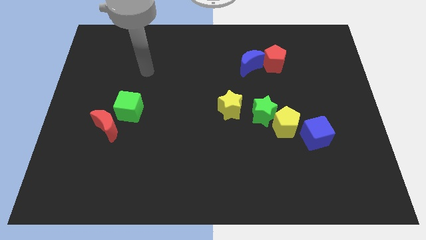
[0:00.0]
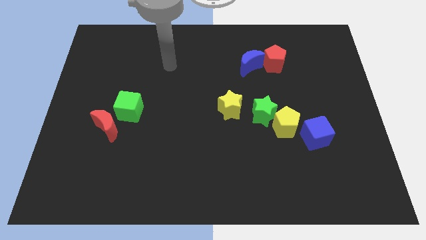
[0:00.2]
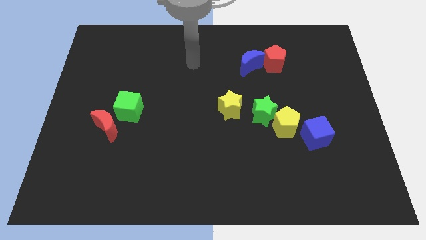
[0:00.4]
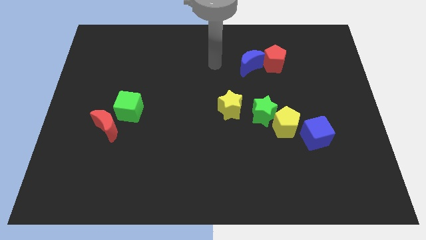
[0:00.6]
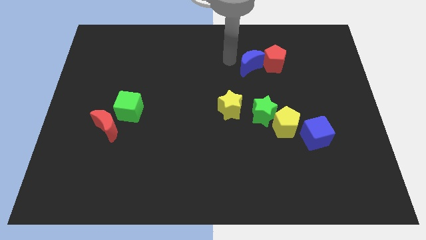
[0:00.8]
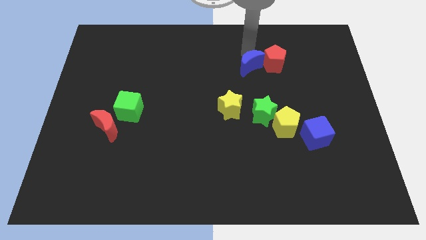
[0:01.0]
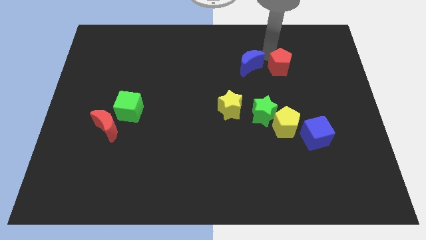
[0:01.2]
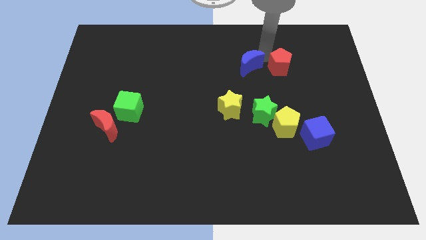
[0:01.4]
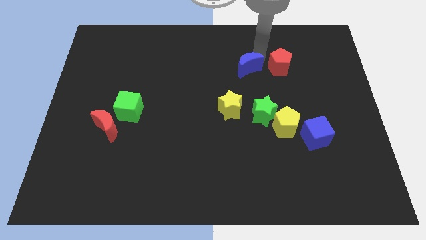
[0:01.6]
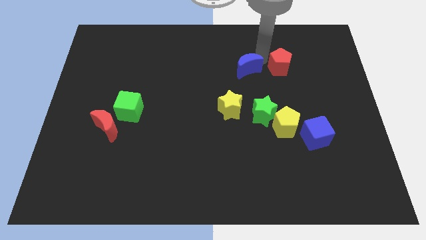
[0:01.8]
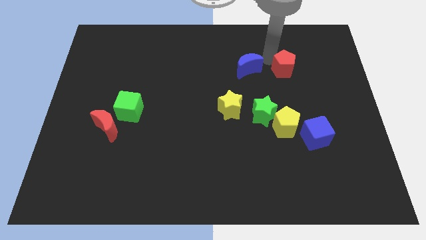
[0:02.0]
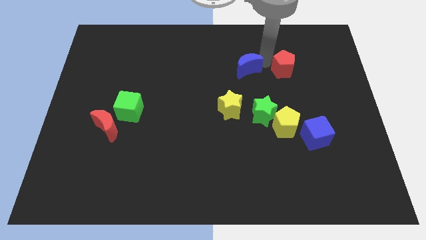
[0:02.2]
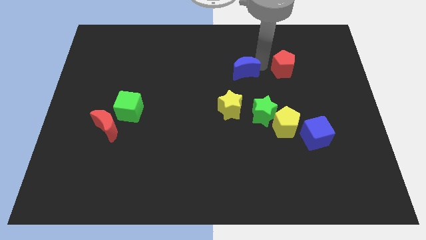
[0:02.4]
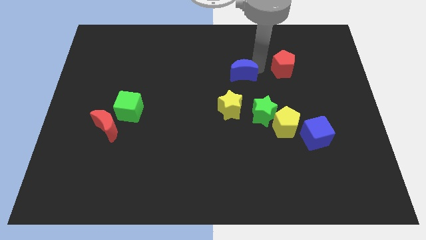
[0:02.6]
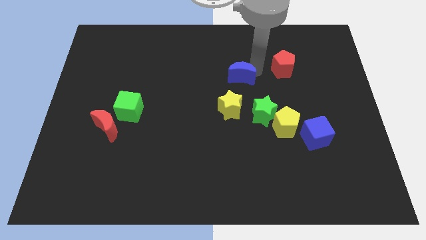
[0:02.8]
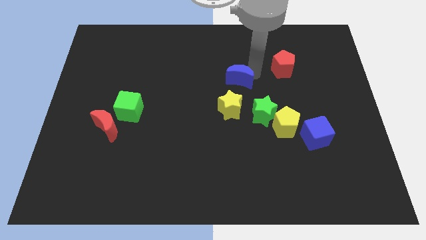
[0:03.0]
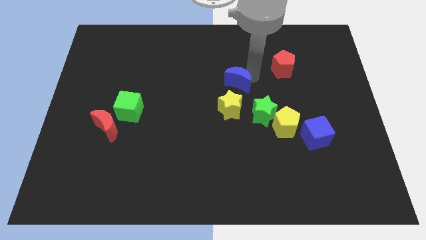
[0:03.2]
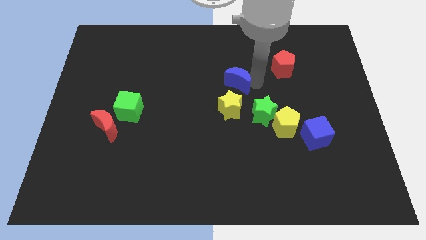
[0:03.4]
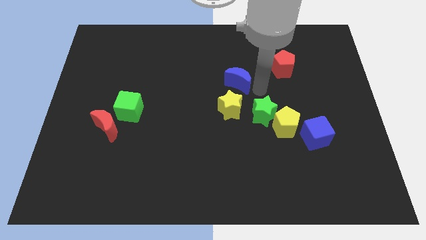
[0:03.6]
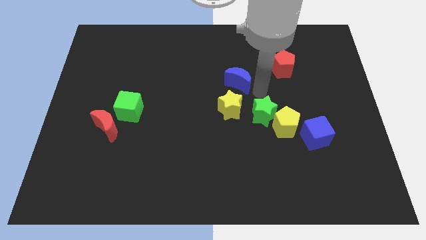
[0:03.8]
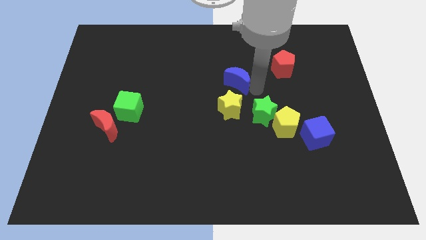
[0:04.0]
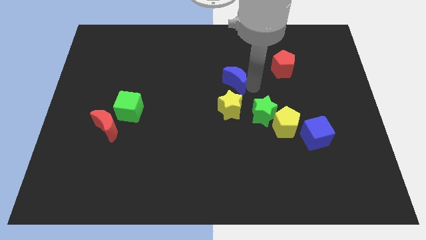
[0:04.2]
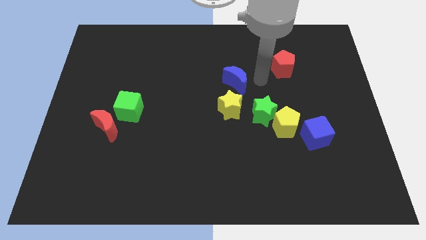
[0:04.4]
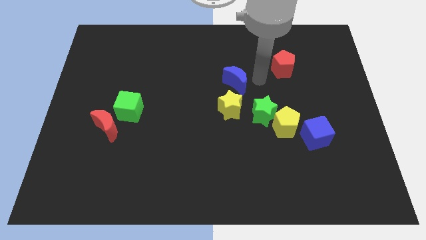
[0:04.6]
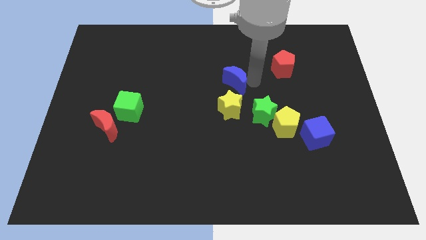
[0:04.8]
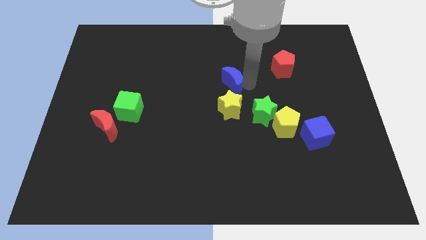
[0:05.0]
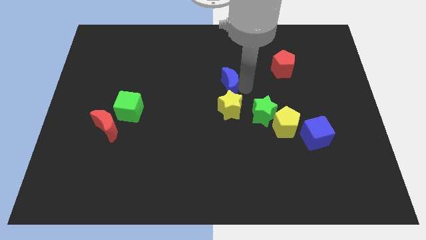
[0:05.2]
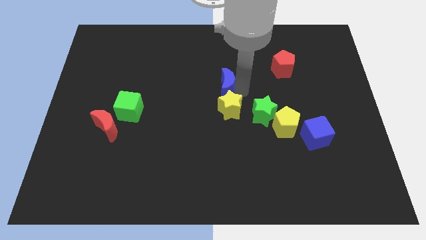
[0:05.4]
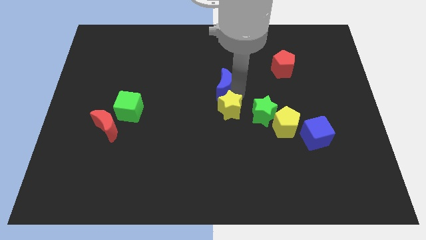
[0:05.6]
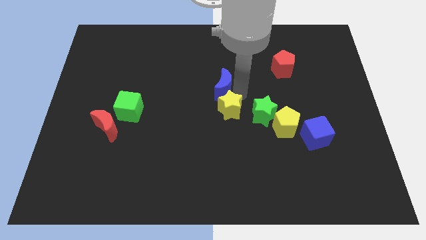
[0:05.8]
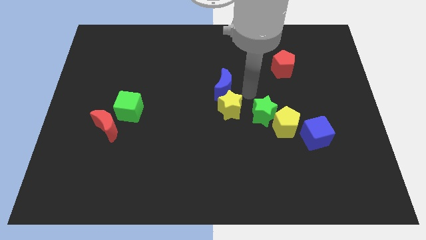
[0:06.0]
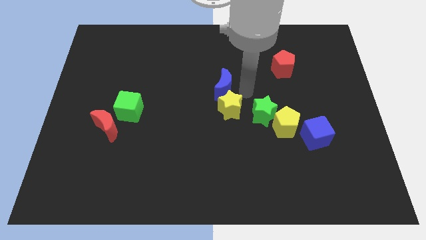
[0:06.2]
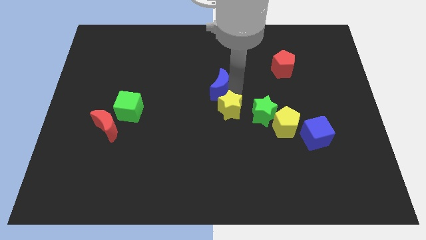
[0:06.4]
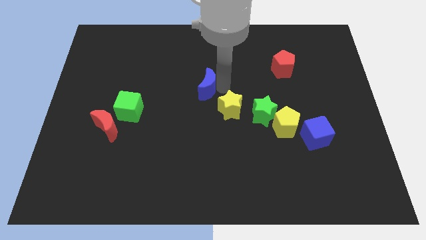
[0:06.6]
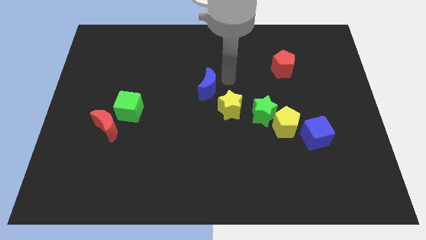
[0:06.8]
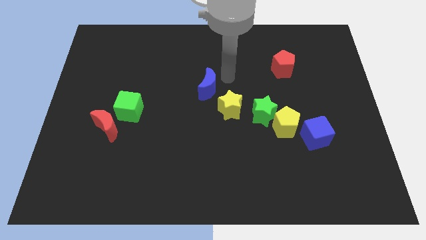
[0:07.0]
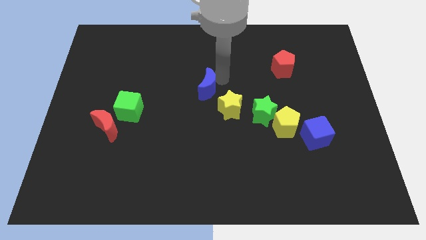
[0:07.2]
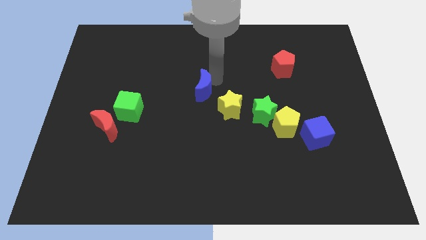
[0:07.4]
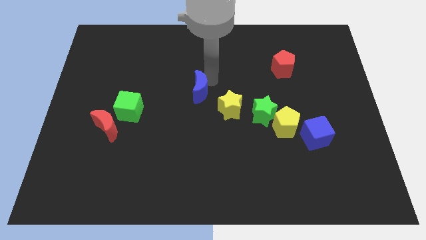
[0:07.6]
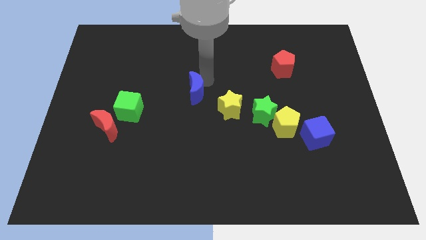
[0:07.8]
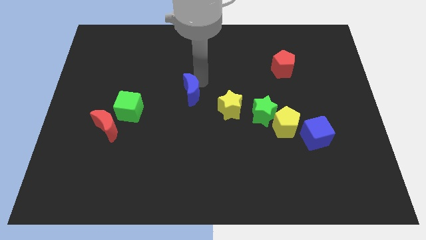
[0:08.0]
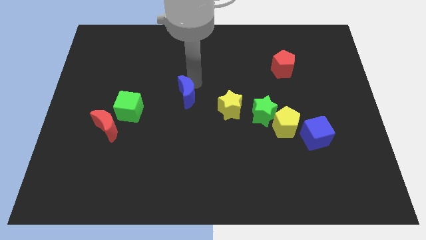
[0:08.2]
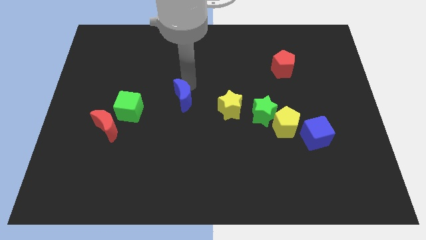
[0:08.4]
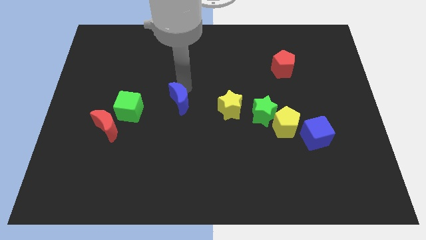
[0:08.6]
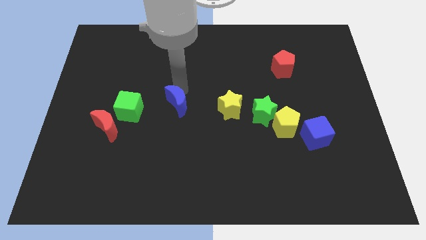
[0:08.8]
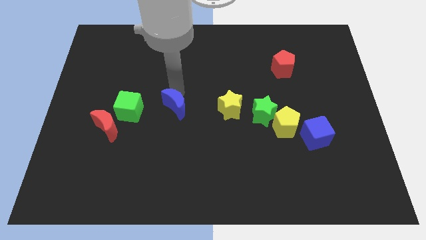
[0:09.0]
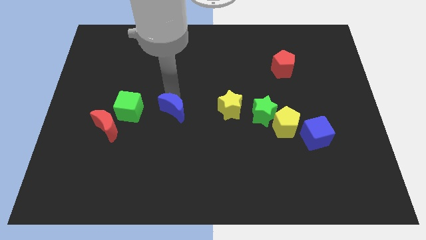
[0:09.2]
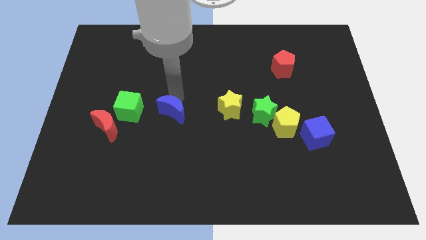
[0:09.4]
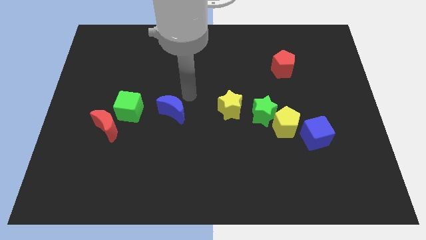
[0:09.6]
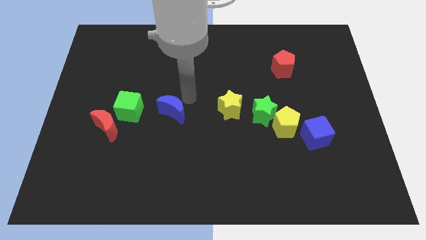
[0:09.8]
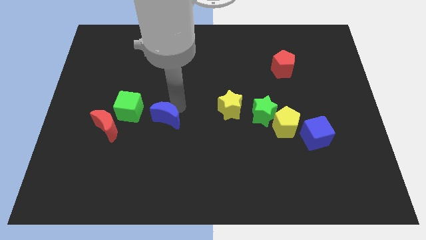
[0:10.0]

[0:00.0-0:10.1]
put the blue moon just right of the red moon

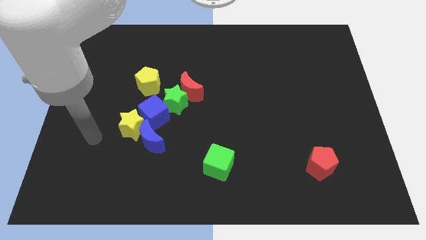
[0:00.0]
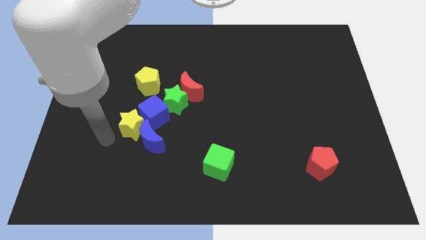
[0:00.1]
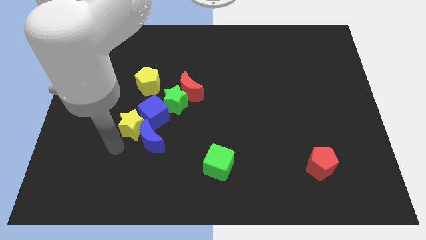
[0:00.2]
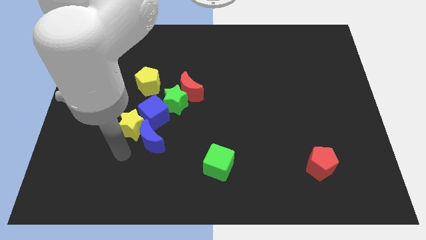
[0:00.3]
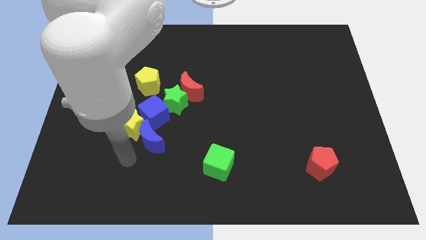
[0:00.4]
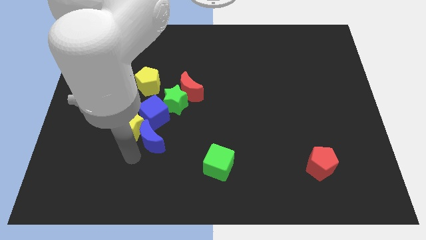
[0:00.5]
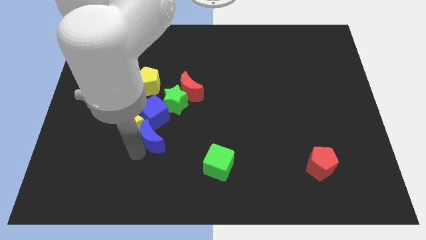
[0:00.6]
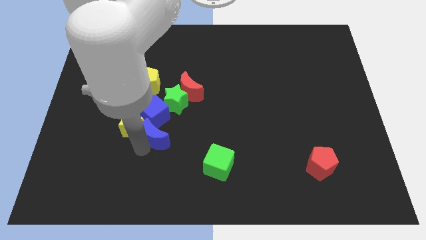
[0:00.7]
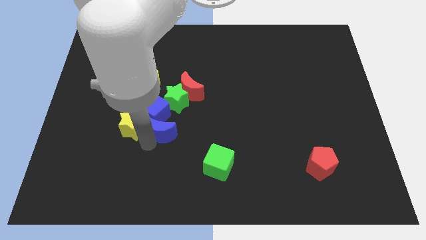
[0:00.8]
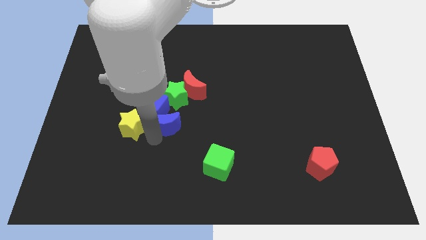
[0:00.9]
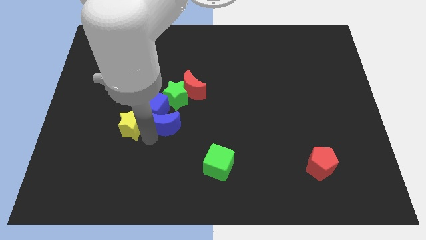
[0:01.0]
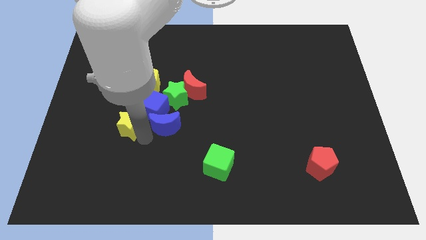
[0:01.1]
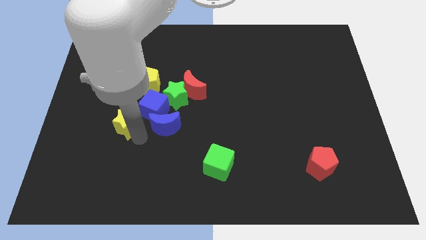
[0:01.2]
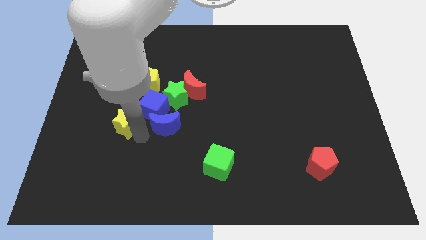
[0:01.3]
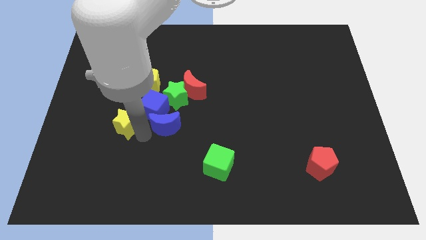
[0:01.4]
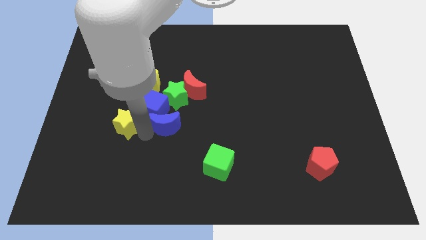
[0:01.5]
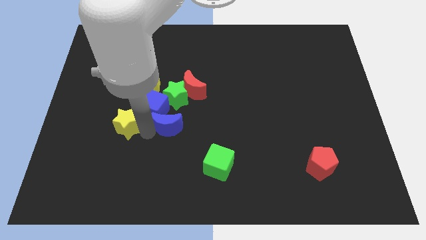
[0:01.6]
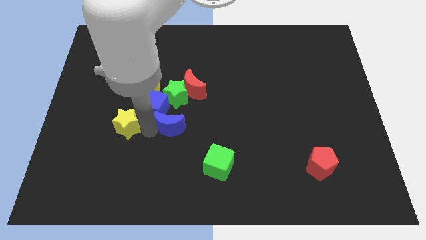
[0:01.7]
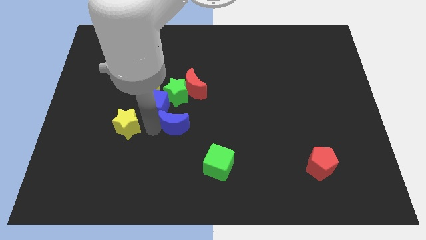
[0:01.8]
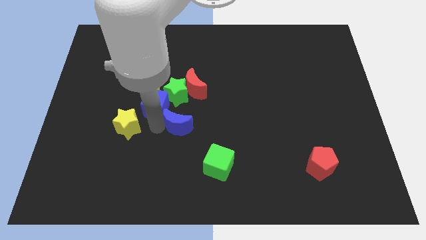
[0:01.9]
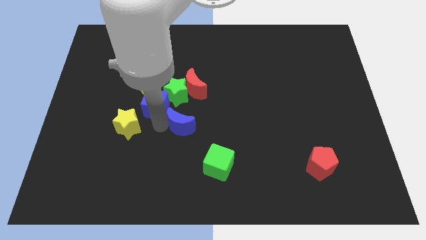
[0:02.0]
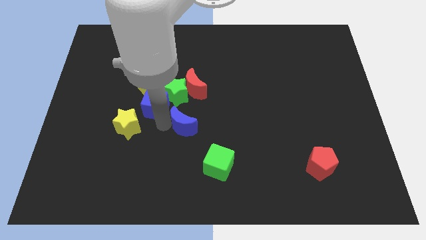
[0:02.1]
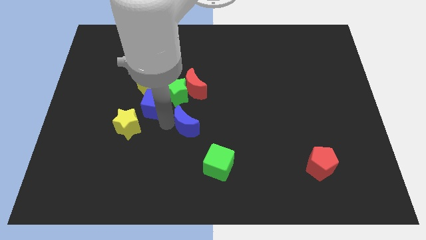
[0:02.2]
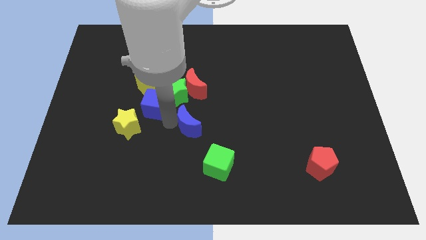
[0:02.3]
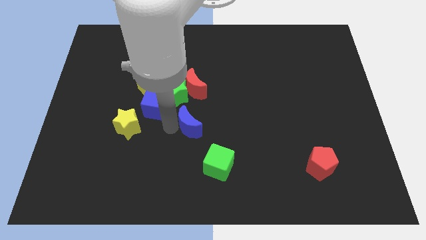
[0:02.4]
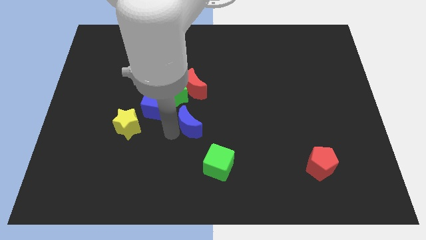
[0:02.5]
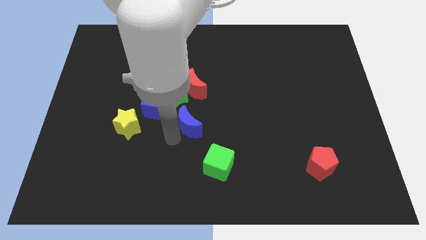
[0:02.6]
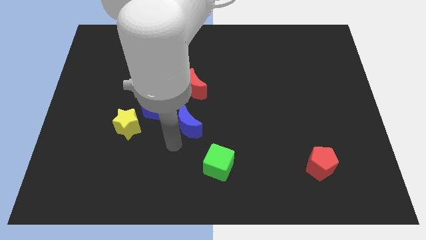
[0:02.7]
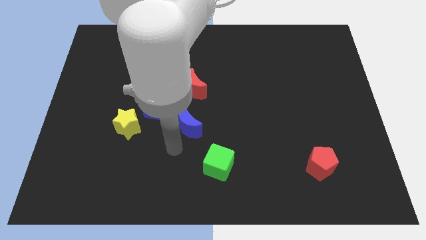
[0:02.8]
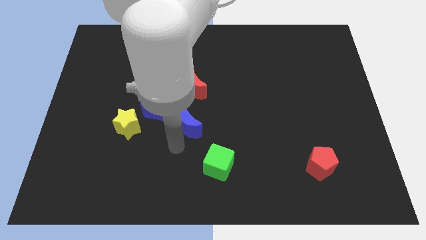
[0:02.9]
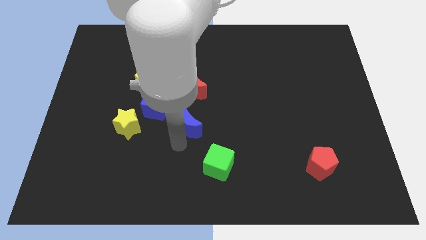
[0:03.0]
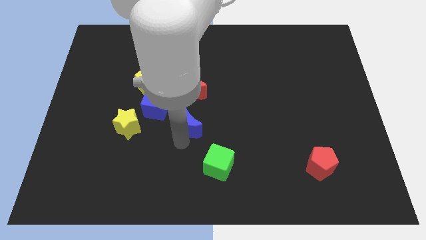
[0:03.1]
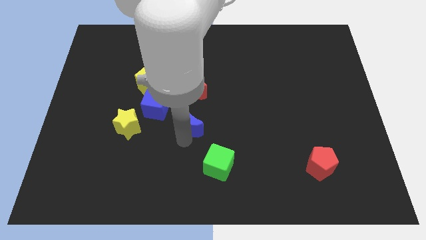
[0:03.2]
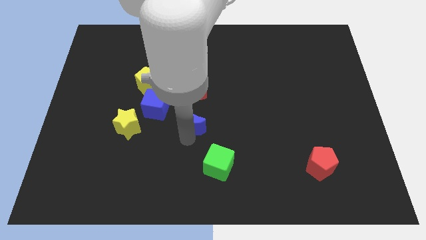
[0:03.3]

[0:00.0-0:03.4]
move the blue moon to the right side of the blue cube
